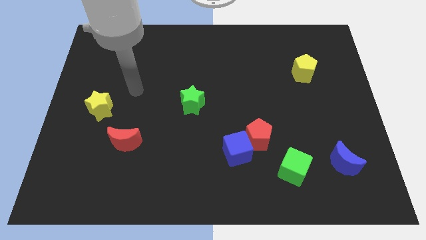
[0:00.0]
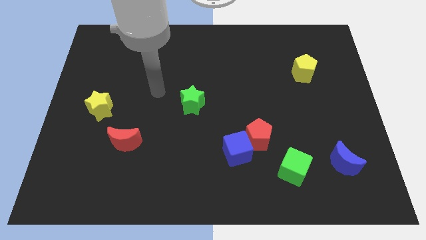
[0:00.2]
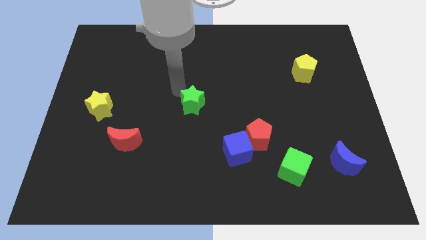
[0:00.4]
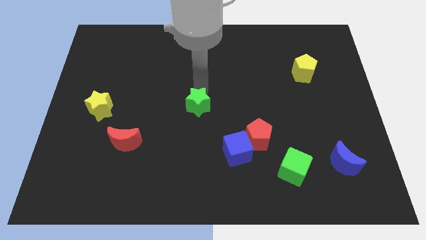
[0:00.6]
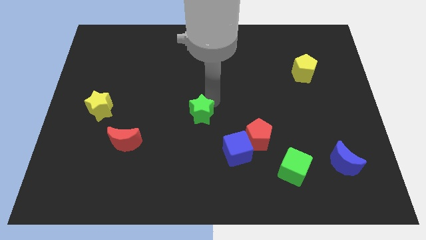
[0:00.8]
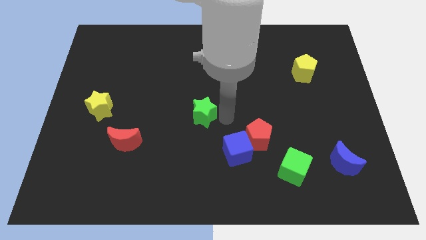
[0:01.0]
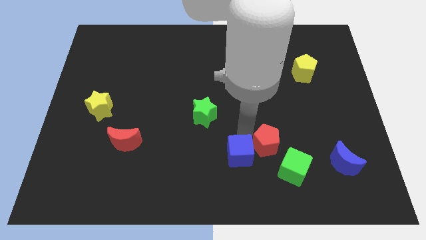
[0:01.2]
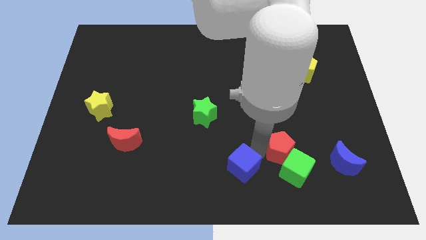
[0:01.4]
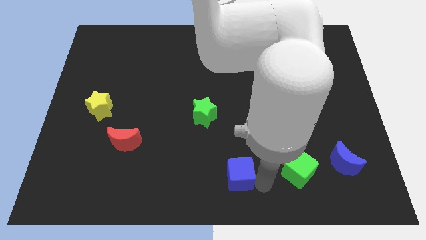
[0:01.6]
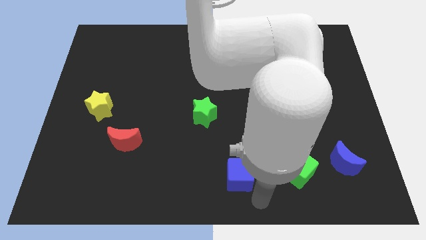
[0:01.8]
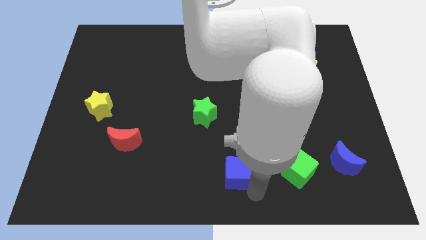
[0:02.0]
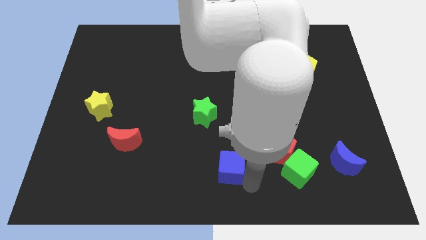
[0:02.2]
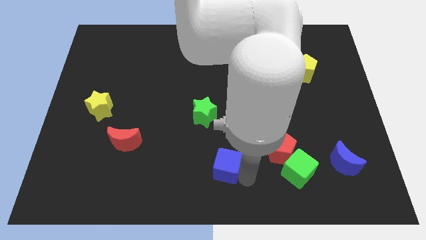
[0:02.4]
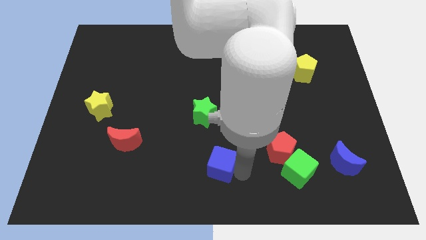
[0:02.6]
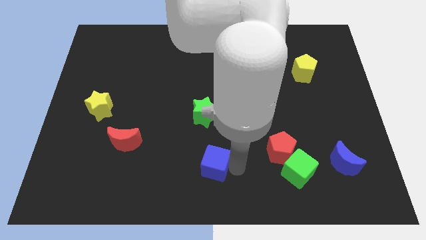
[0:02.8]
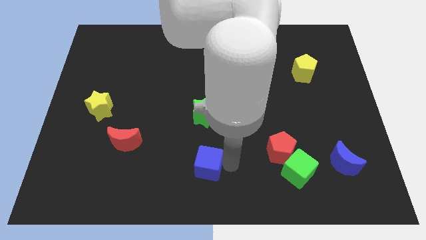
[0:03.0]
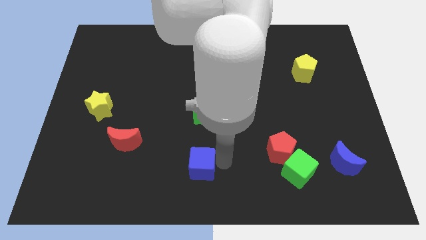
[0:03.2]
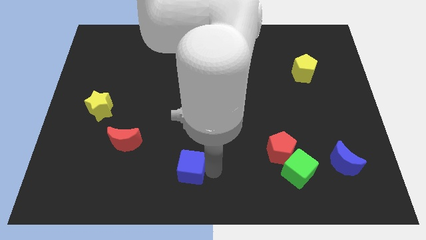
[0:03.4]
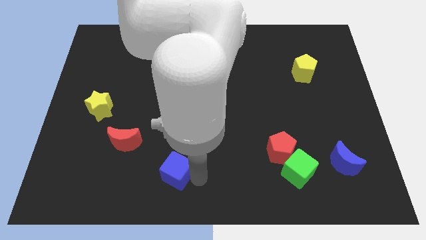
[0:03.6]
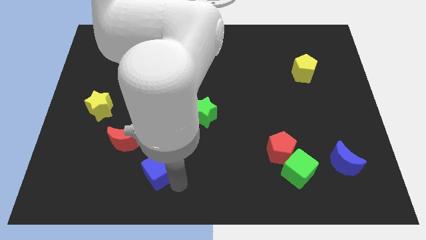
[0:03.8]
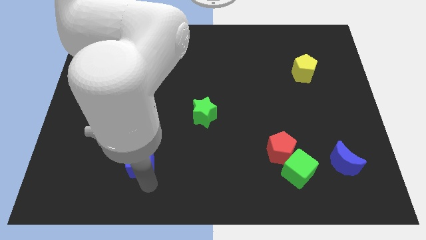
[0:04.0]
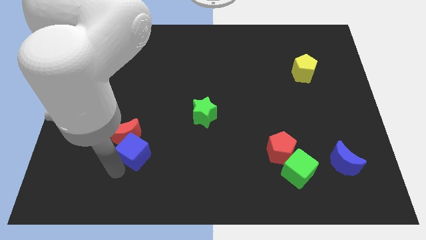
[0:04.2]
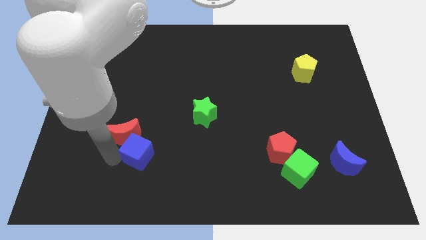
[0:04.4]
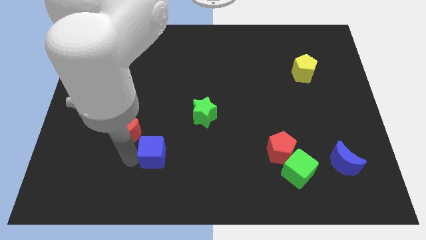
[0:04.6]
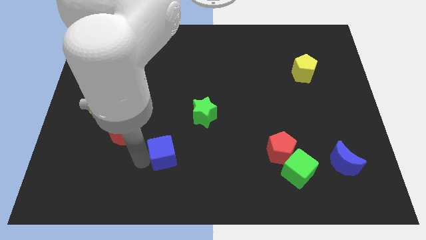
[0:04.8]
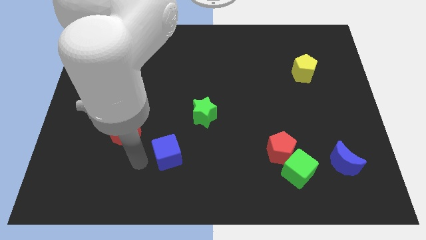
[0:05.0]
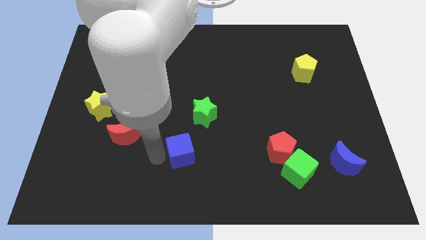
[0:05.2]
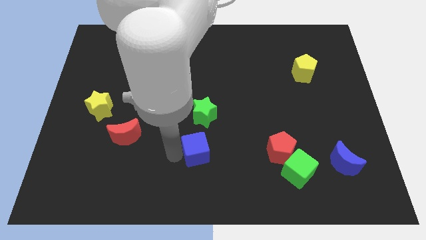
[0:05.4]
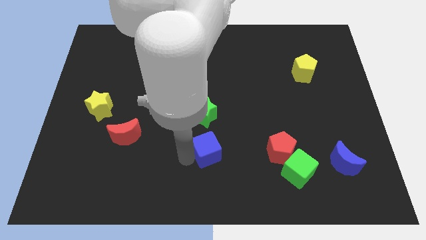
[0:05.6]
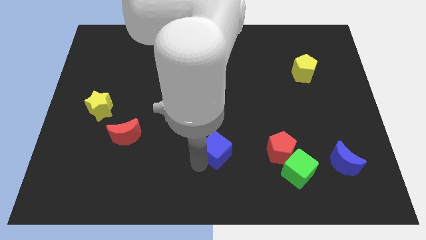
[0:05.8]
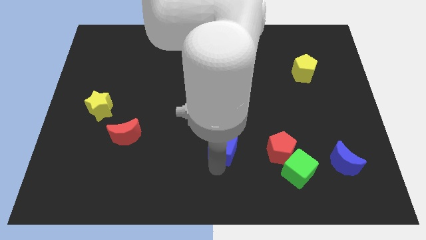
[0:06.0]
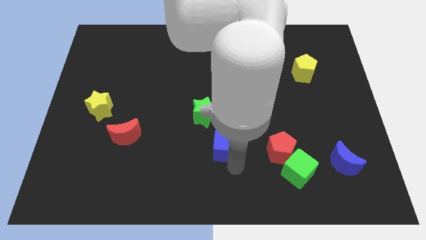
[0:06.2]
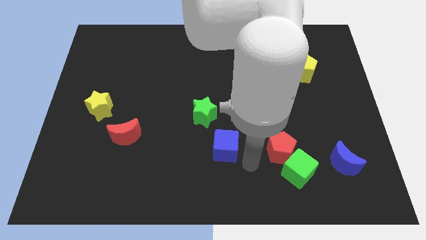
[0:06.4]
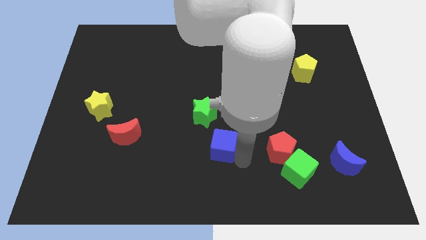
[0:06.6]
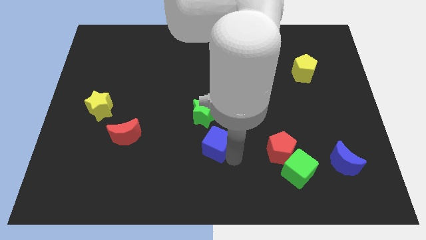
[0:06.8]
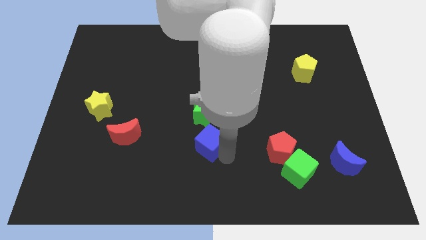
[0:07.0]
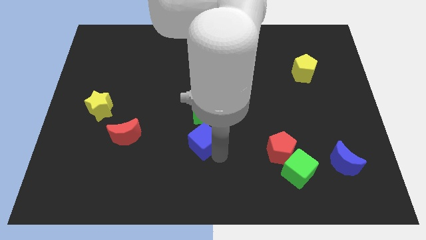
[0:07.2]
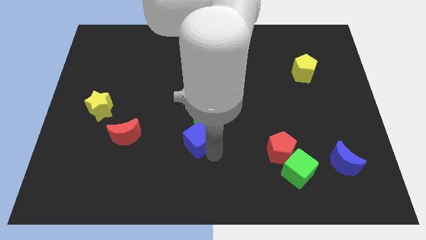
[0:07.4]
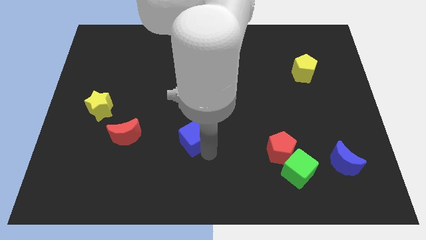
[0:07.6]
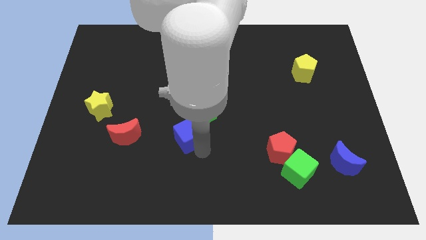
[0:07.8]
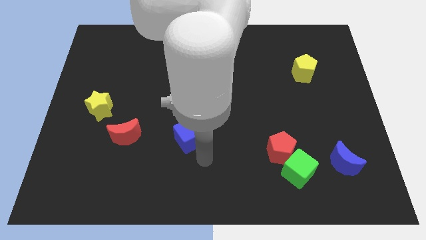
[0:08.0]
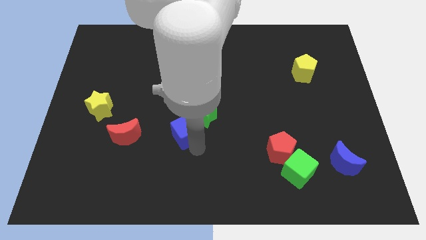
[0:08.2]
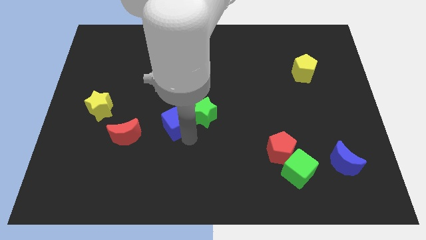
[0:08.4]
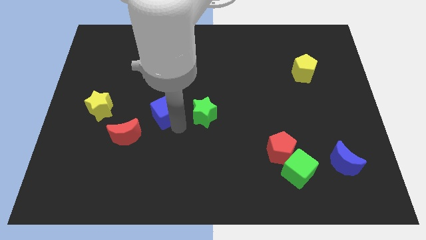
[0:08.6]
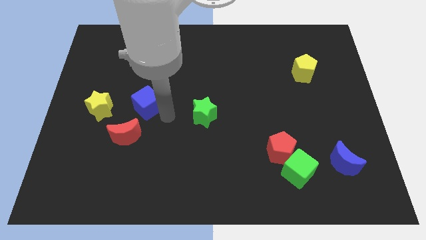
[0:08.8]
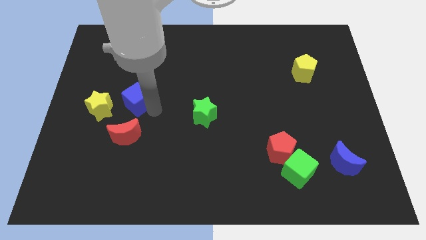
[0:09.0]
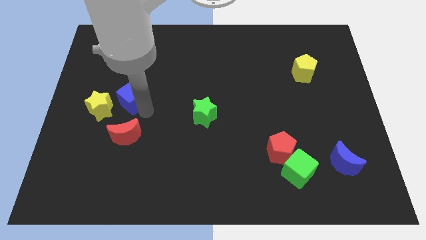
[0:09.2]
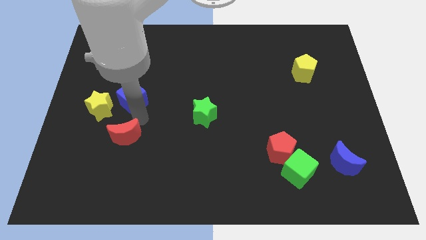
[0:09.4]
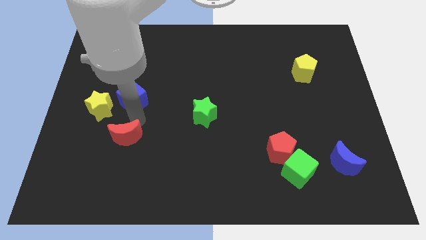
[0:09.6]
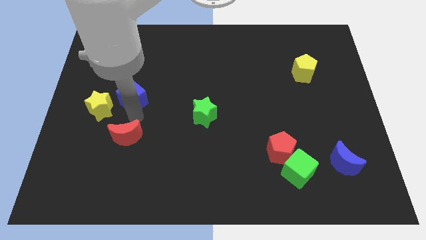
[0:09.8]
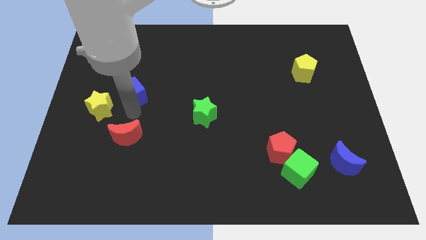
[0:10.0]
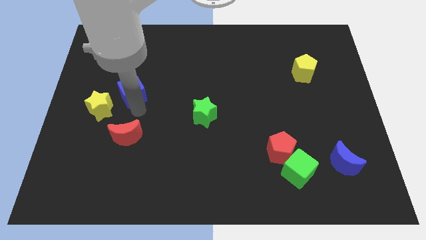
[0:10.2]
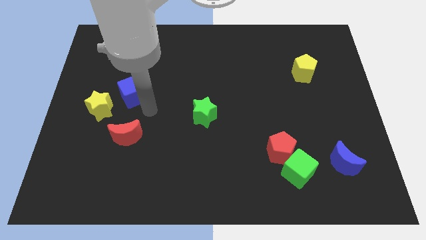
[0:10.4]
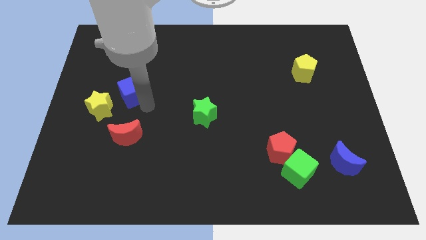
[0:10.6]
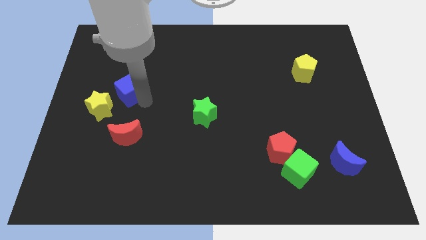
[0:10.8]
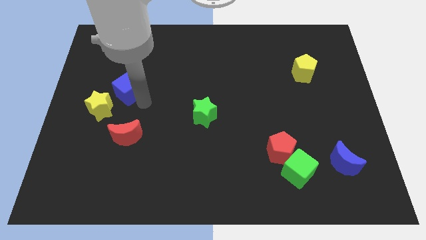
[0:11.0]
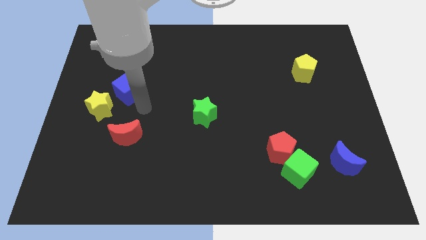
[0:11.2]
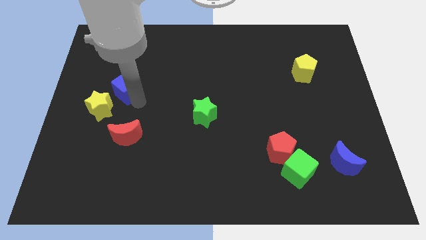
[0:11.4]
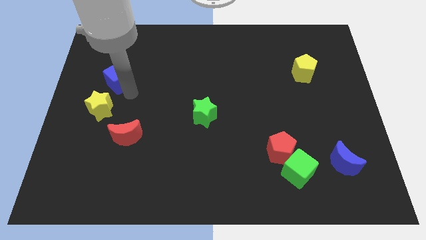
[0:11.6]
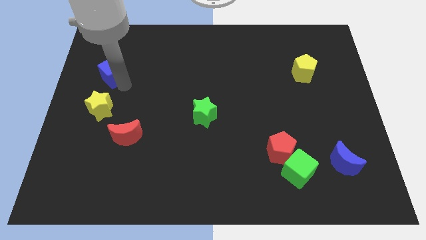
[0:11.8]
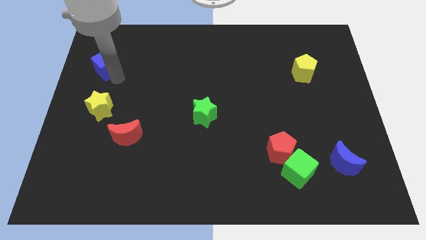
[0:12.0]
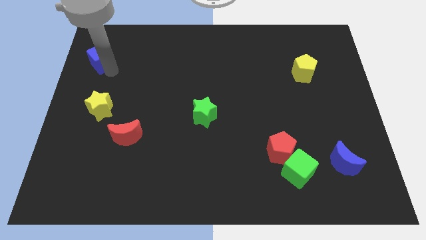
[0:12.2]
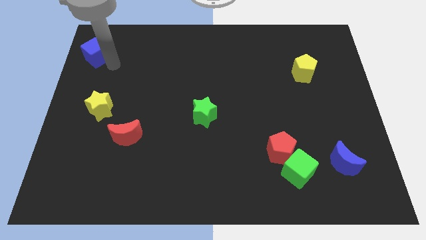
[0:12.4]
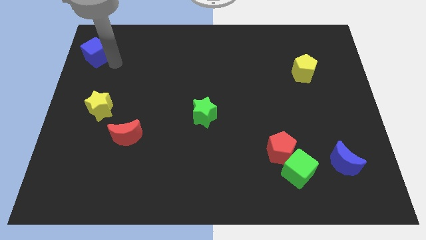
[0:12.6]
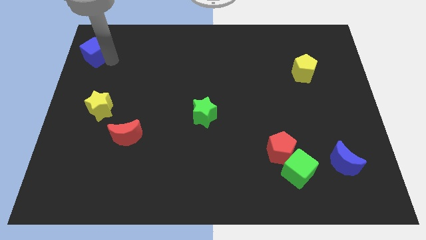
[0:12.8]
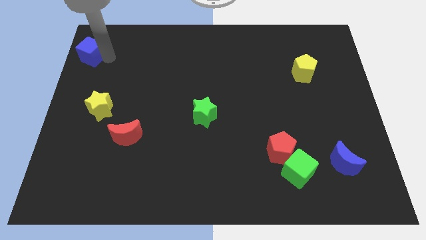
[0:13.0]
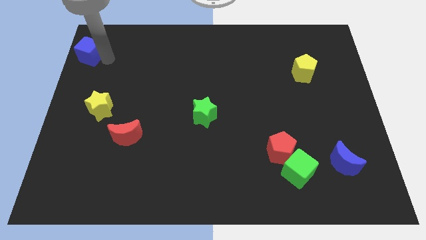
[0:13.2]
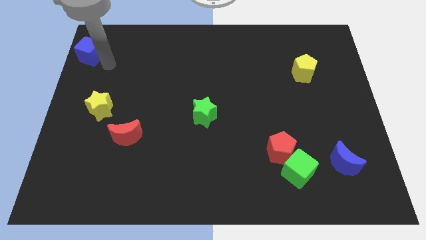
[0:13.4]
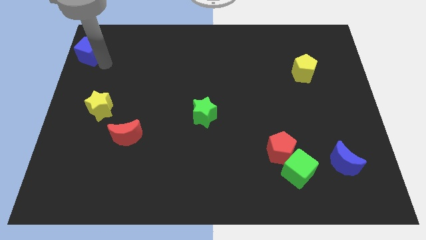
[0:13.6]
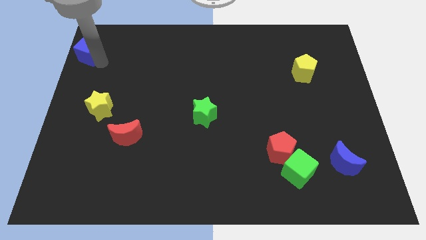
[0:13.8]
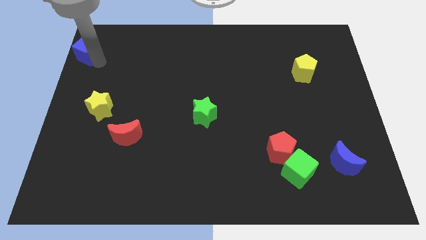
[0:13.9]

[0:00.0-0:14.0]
slide the blue cube to the upper left corner
